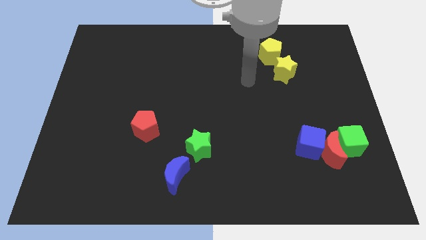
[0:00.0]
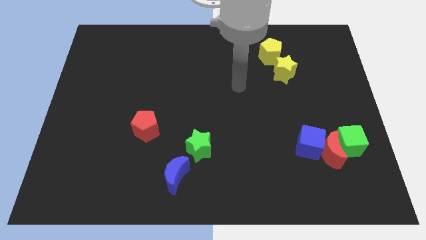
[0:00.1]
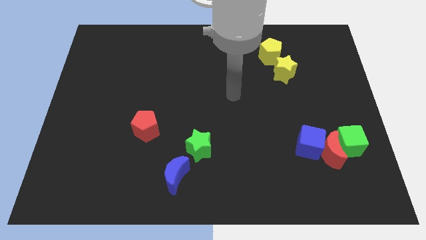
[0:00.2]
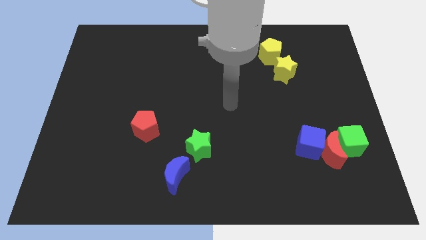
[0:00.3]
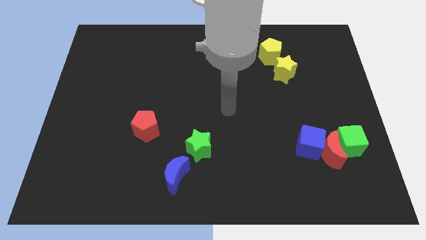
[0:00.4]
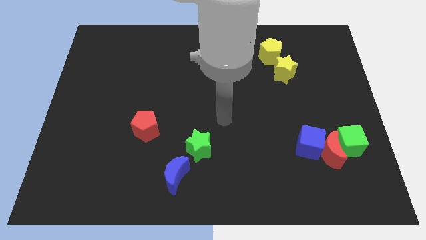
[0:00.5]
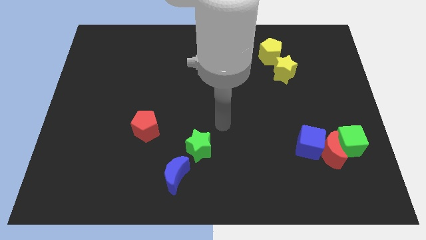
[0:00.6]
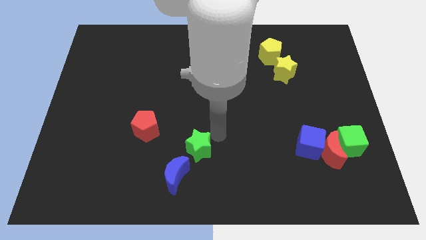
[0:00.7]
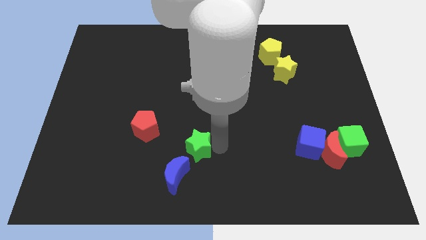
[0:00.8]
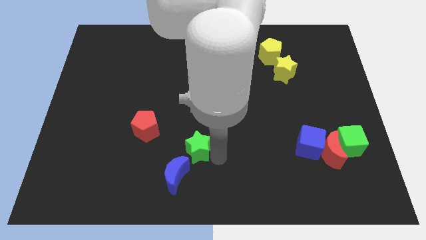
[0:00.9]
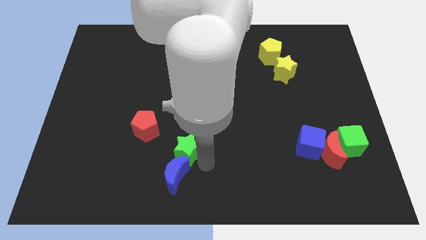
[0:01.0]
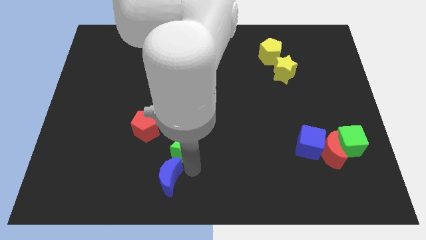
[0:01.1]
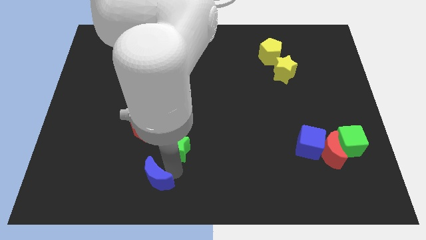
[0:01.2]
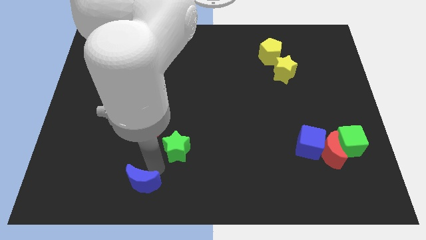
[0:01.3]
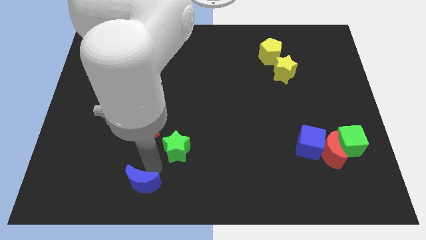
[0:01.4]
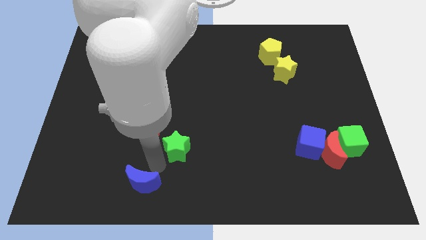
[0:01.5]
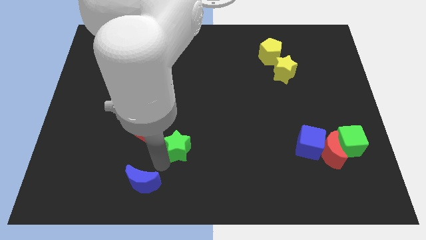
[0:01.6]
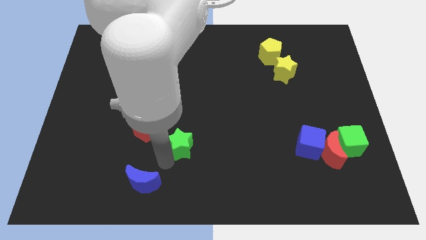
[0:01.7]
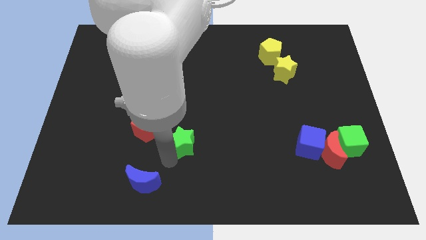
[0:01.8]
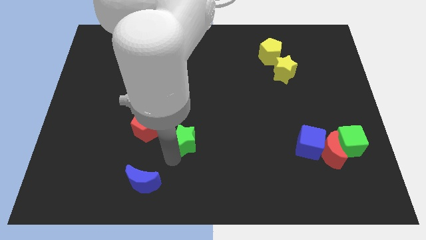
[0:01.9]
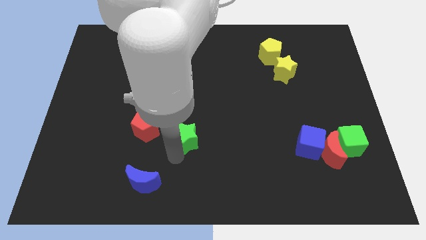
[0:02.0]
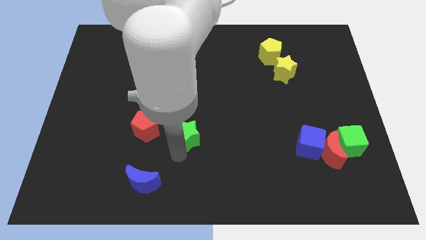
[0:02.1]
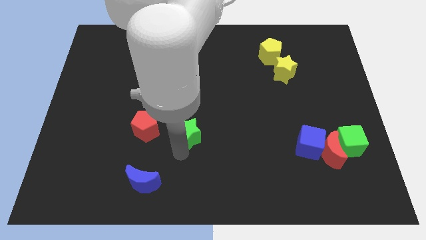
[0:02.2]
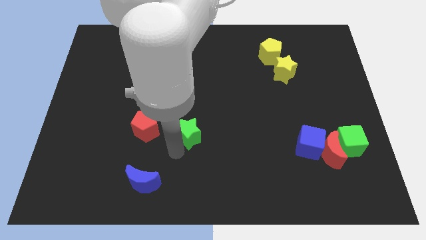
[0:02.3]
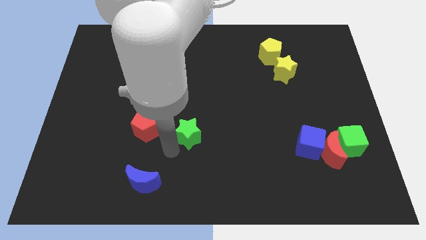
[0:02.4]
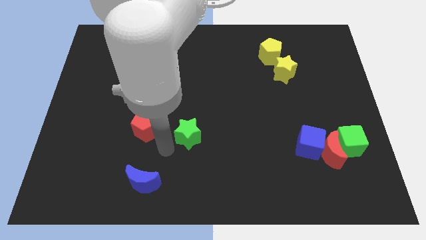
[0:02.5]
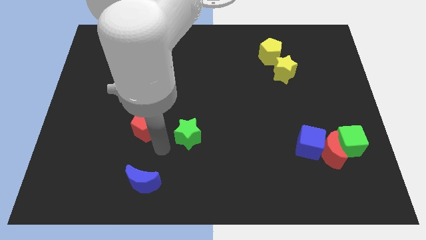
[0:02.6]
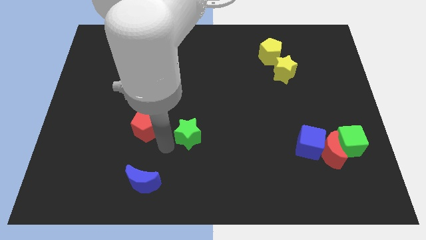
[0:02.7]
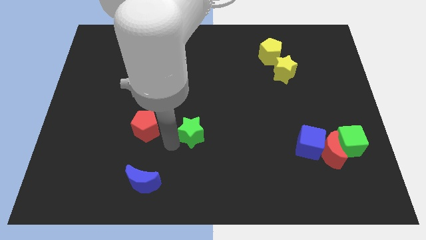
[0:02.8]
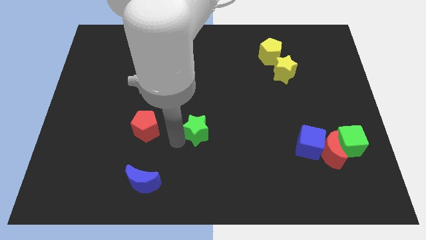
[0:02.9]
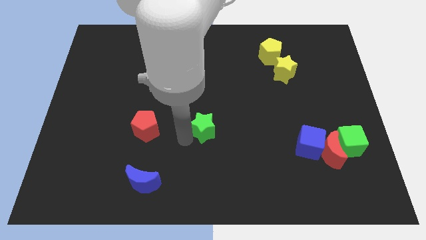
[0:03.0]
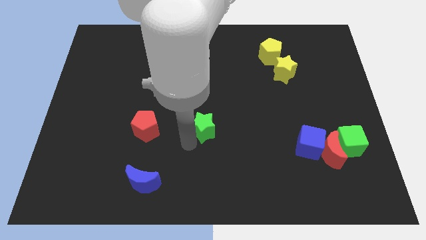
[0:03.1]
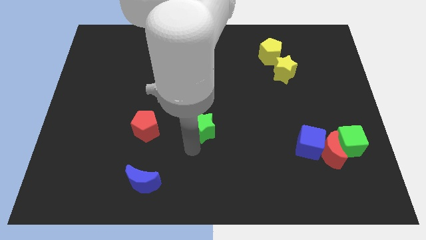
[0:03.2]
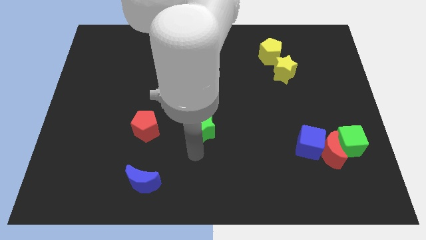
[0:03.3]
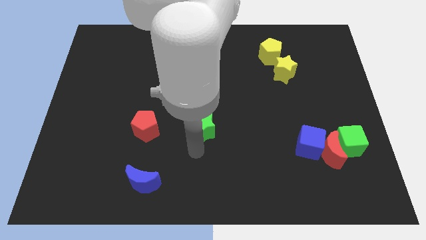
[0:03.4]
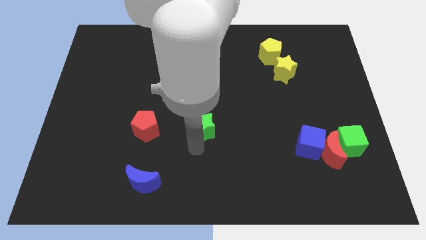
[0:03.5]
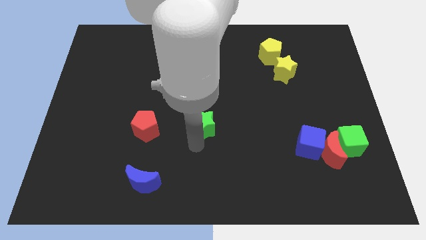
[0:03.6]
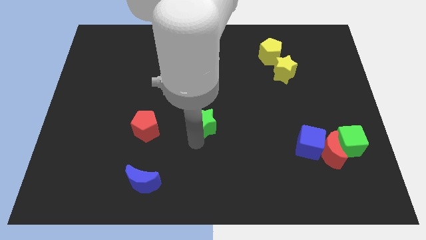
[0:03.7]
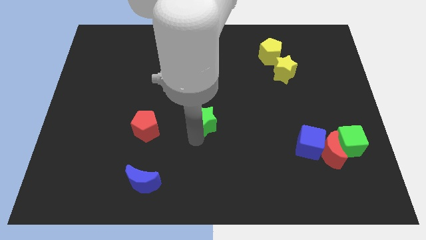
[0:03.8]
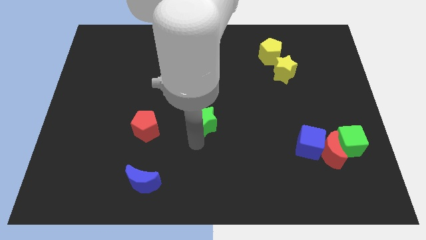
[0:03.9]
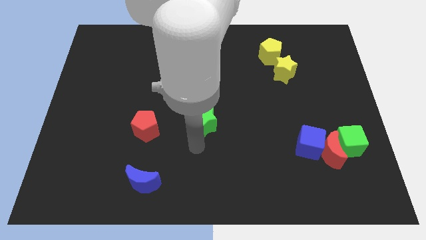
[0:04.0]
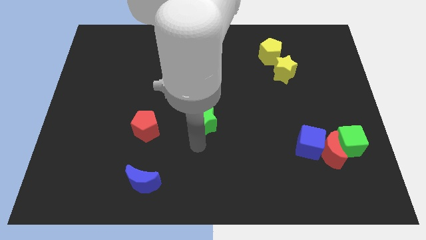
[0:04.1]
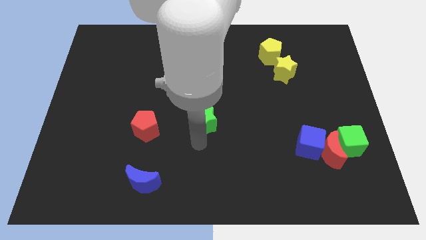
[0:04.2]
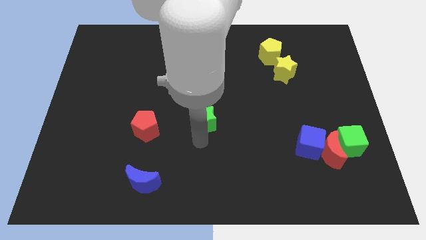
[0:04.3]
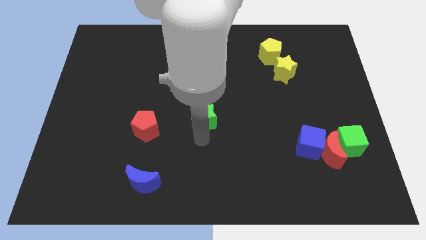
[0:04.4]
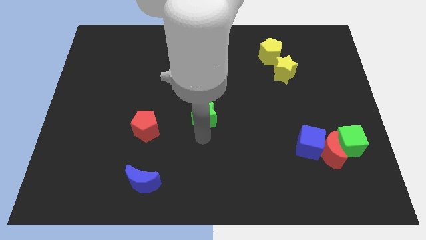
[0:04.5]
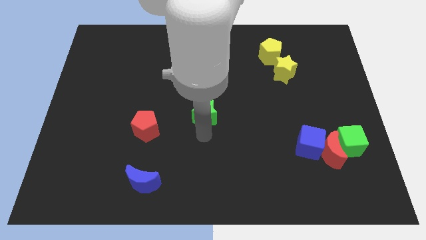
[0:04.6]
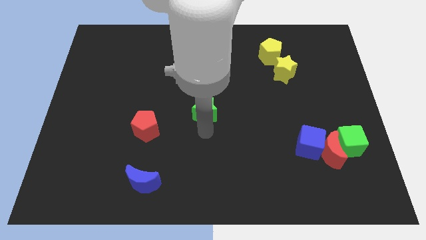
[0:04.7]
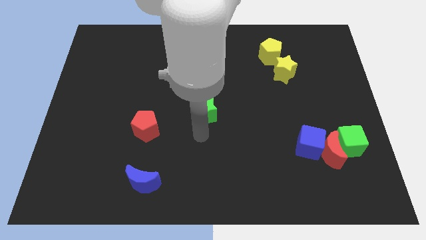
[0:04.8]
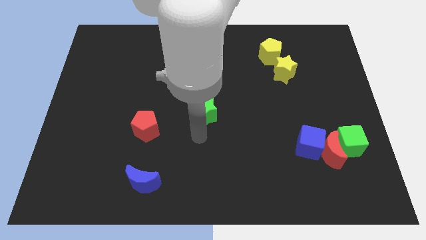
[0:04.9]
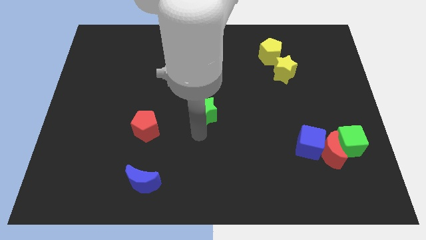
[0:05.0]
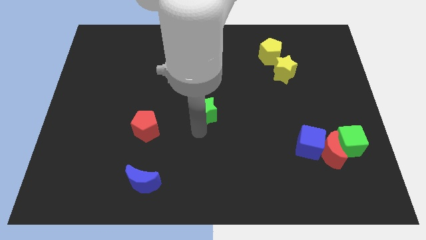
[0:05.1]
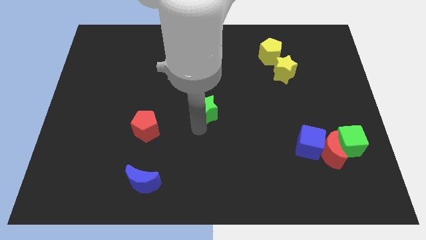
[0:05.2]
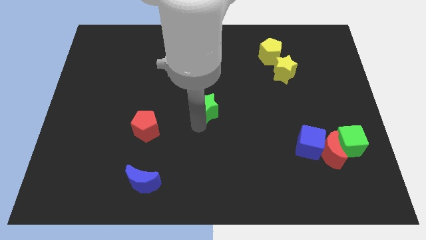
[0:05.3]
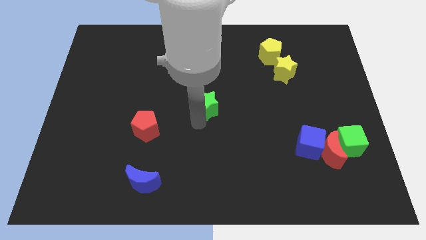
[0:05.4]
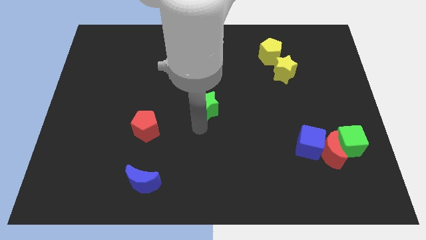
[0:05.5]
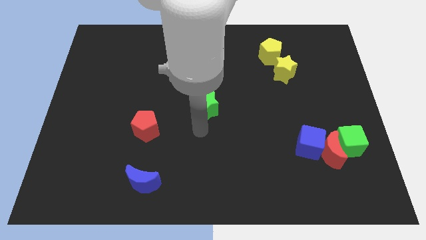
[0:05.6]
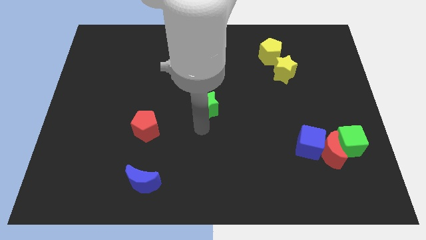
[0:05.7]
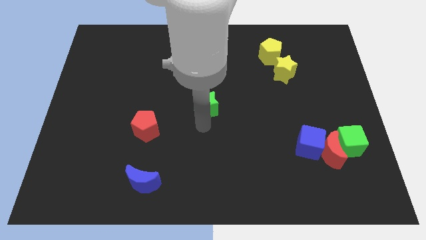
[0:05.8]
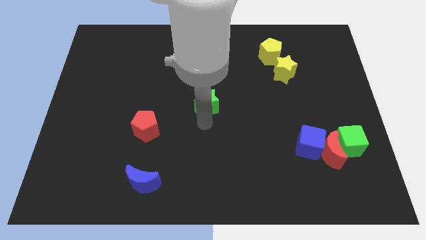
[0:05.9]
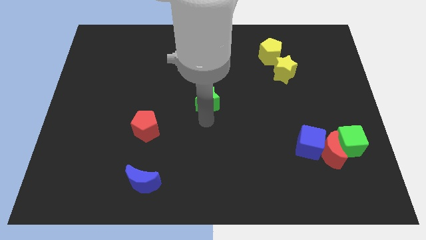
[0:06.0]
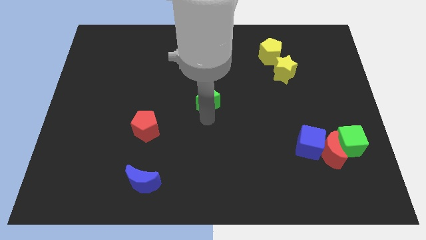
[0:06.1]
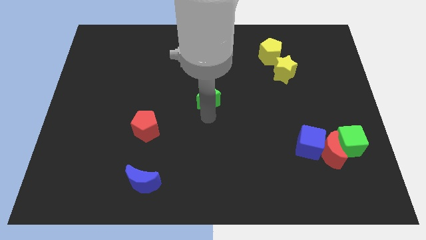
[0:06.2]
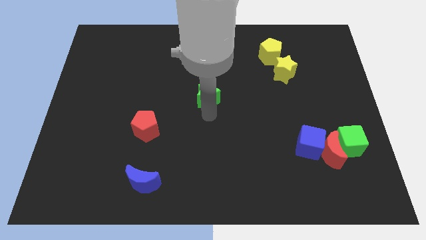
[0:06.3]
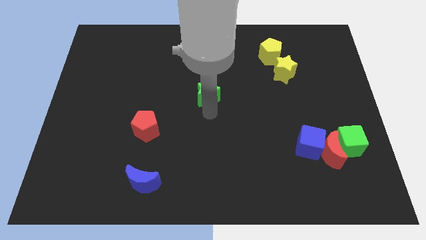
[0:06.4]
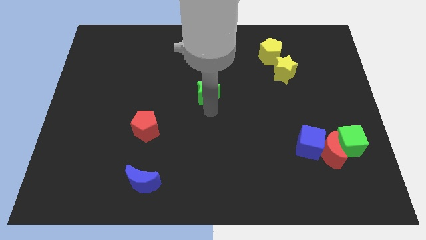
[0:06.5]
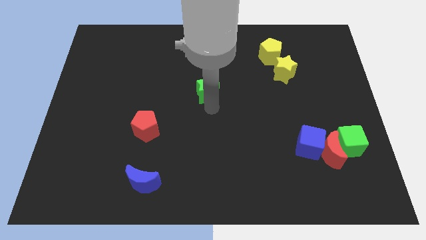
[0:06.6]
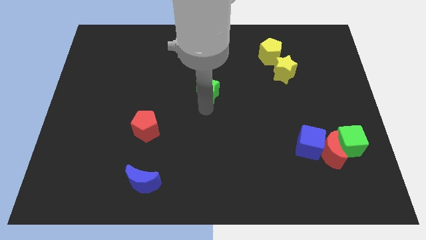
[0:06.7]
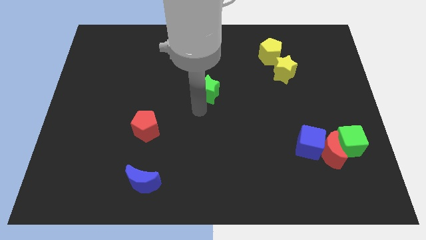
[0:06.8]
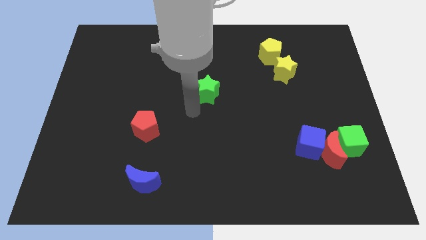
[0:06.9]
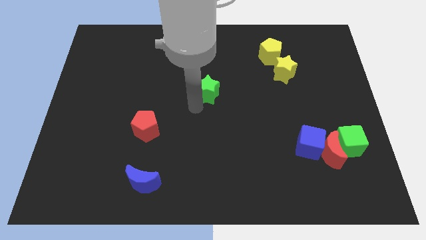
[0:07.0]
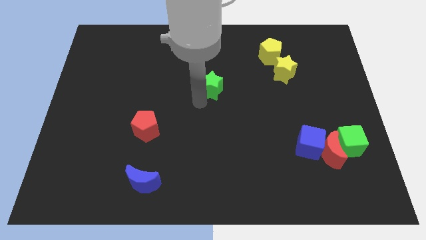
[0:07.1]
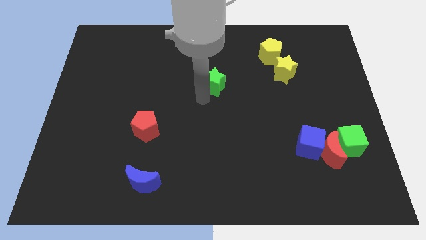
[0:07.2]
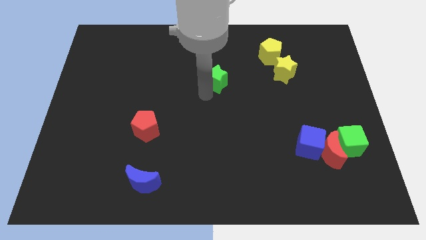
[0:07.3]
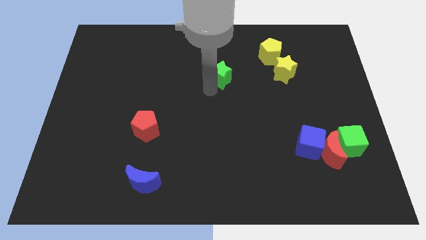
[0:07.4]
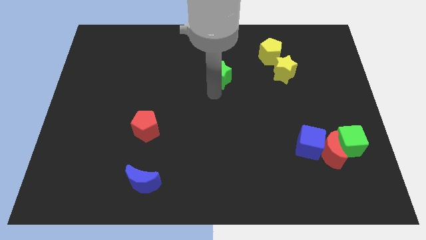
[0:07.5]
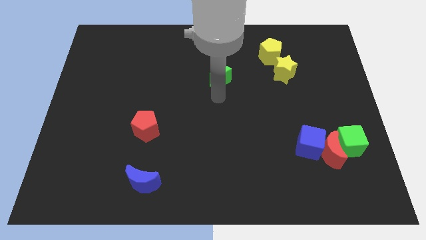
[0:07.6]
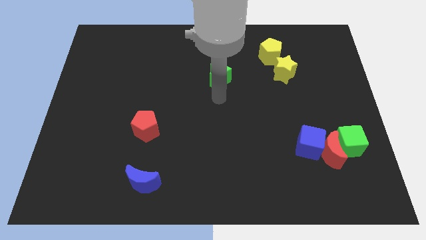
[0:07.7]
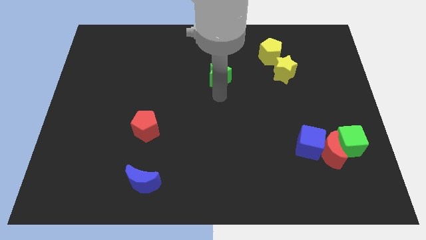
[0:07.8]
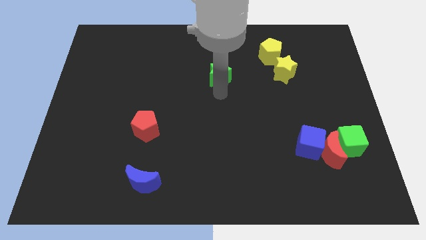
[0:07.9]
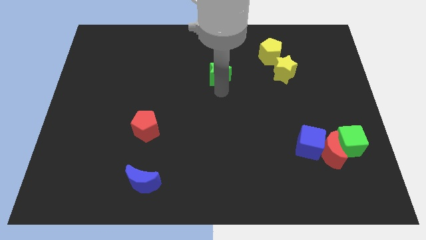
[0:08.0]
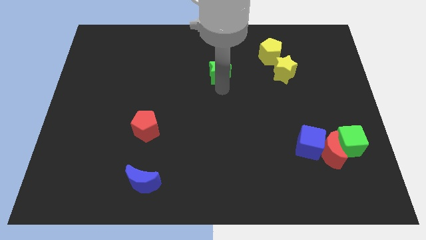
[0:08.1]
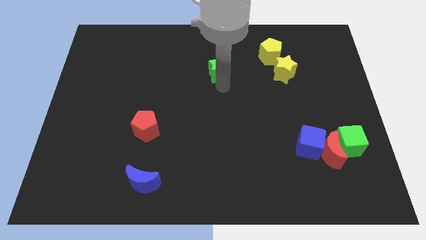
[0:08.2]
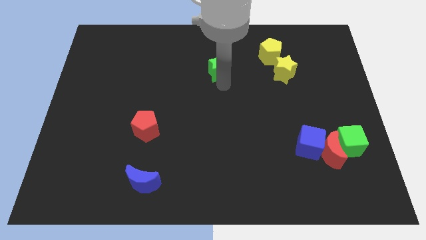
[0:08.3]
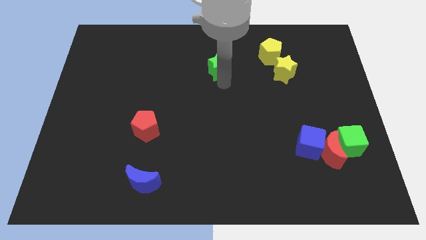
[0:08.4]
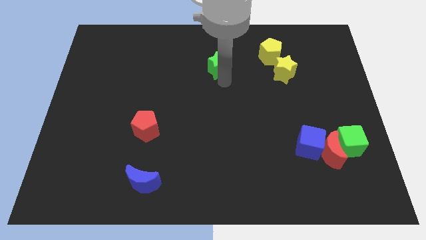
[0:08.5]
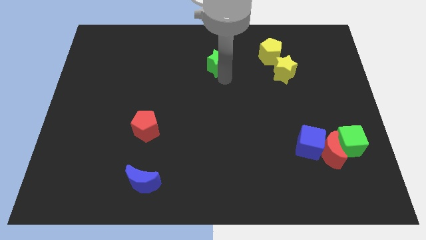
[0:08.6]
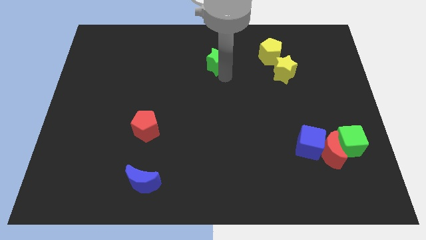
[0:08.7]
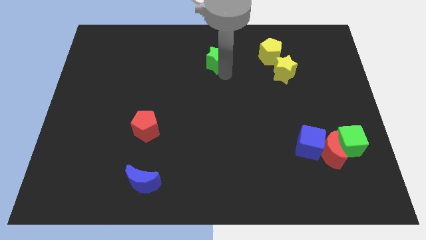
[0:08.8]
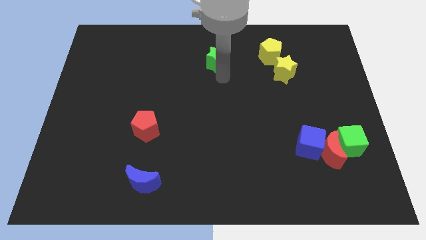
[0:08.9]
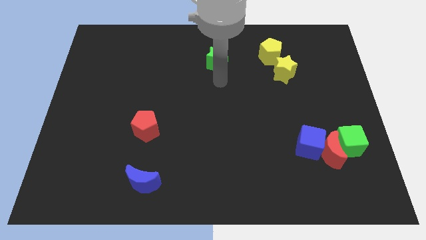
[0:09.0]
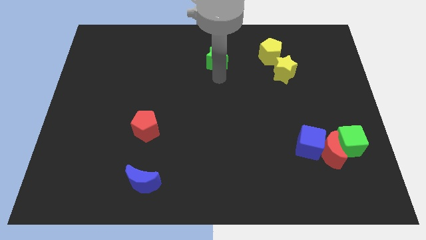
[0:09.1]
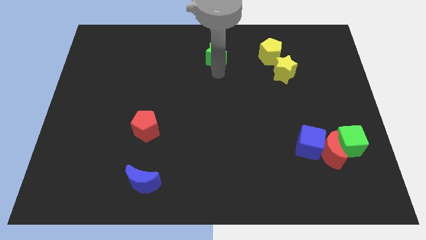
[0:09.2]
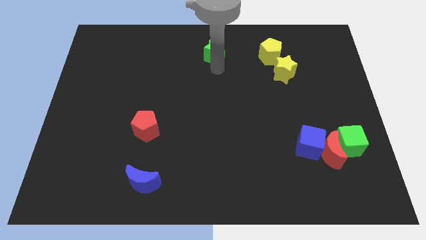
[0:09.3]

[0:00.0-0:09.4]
slide the green star to the top side
